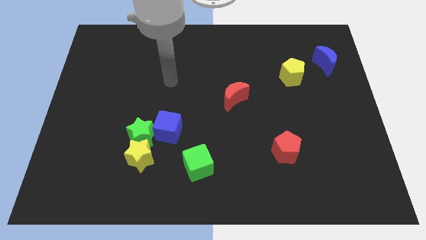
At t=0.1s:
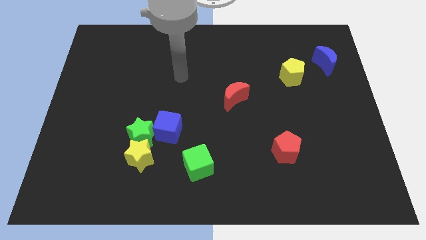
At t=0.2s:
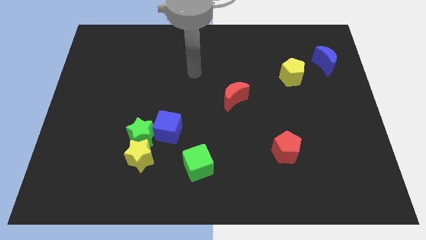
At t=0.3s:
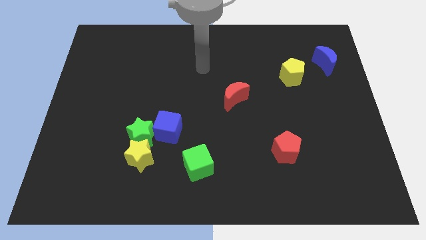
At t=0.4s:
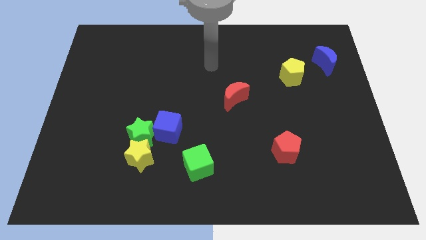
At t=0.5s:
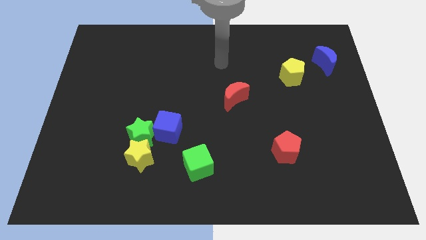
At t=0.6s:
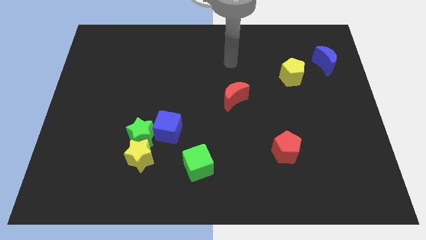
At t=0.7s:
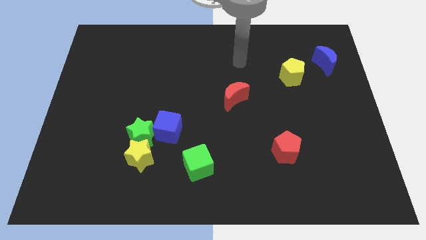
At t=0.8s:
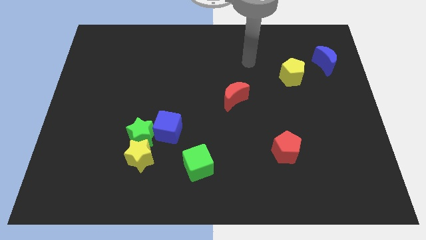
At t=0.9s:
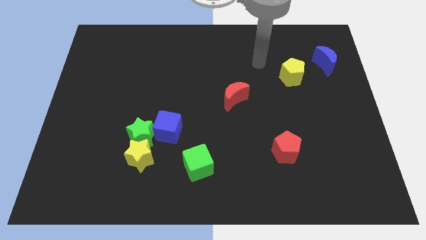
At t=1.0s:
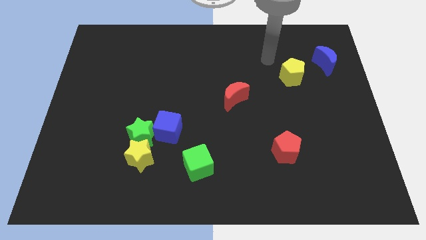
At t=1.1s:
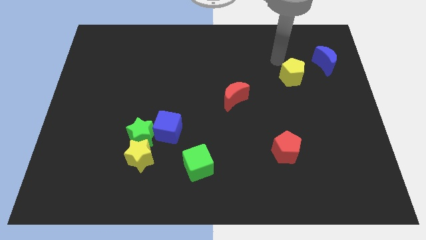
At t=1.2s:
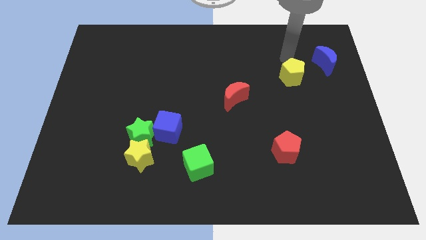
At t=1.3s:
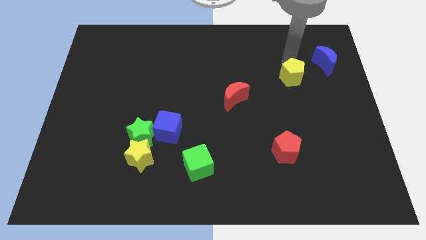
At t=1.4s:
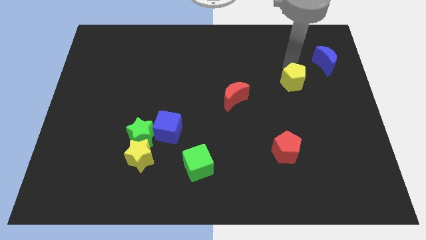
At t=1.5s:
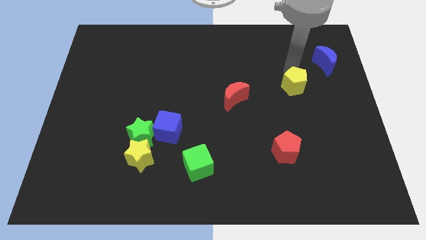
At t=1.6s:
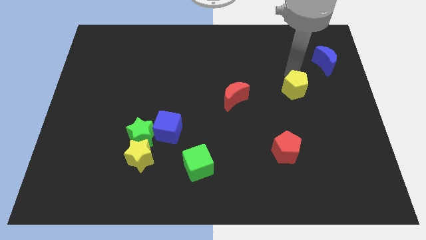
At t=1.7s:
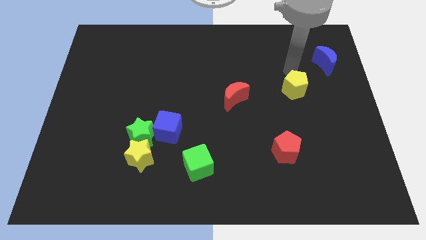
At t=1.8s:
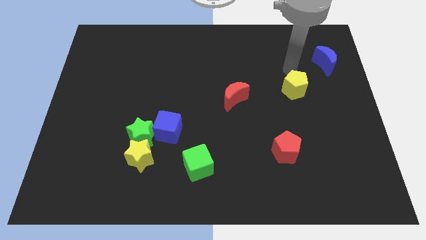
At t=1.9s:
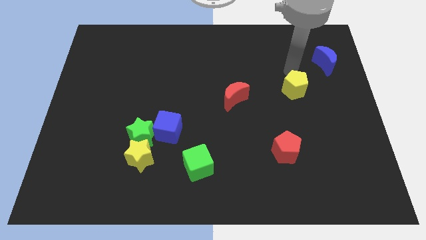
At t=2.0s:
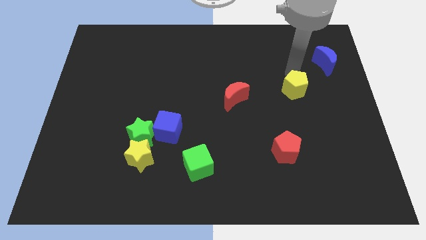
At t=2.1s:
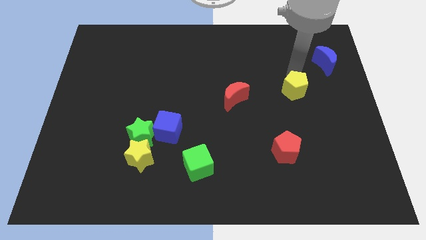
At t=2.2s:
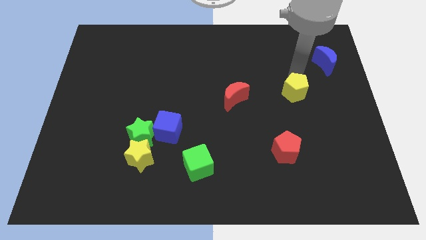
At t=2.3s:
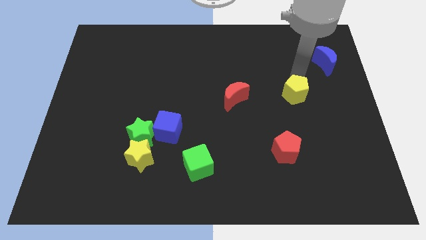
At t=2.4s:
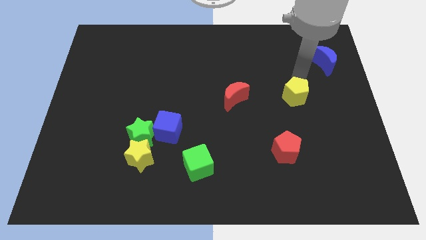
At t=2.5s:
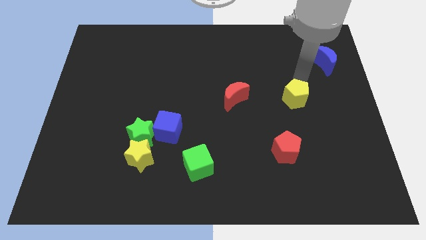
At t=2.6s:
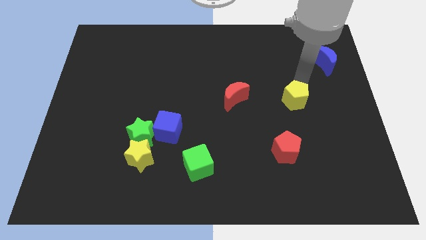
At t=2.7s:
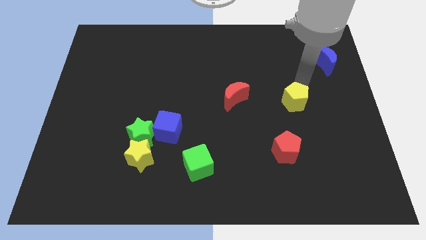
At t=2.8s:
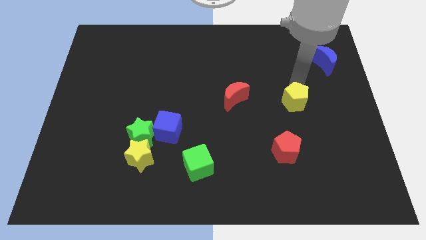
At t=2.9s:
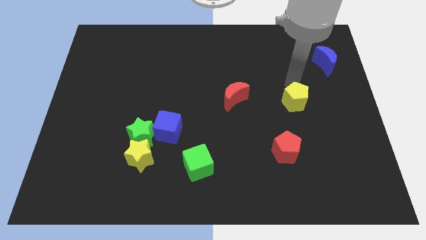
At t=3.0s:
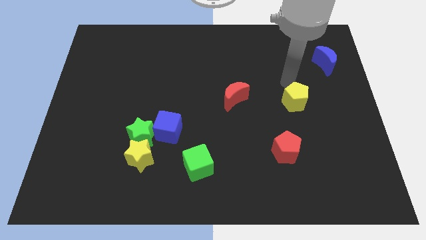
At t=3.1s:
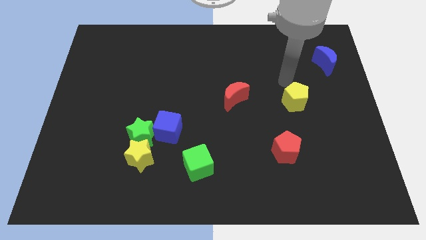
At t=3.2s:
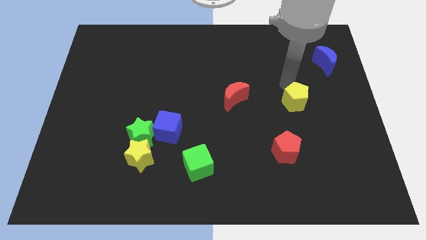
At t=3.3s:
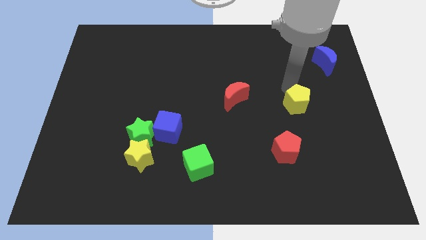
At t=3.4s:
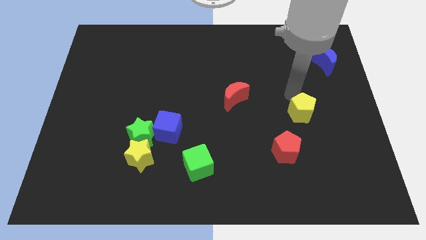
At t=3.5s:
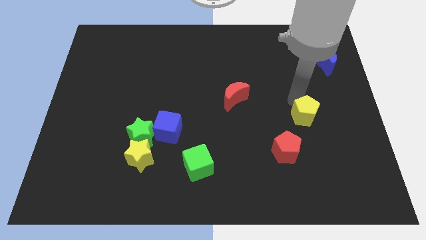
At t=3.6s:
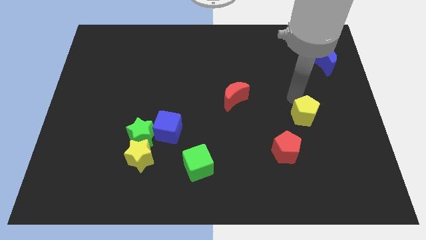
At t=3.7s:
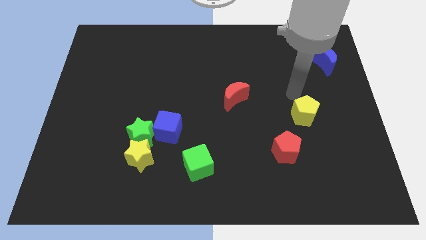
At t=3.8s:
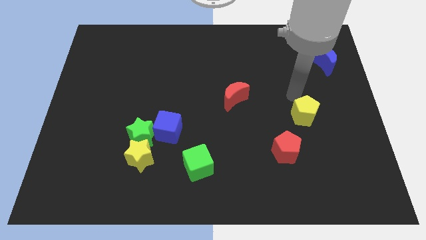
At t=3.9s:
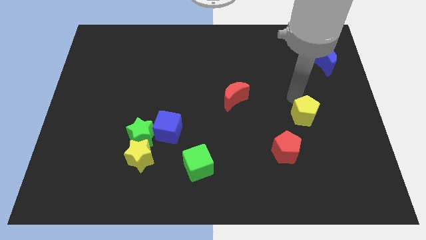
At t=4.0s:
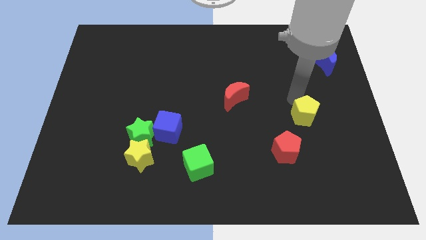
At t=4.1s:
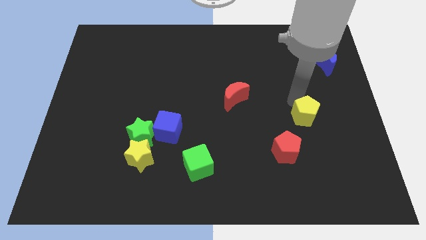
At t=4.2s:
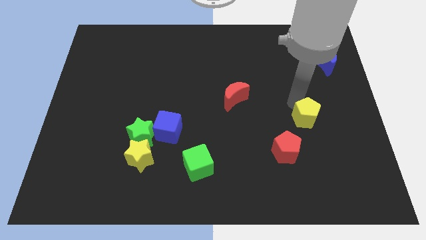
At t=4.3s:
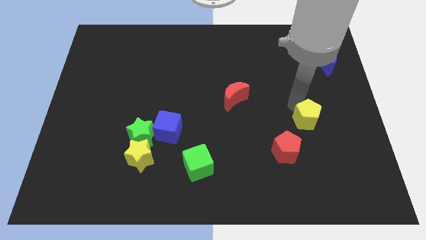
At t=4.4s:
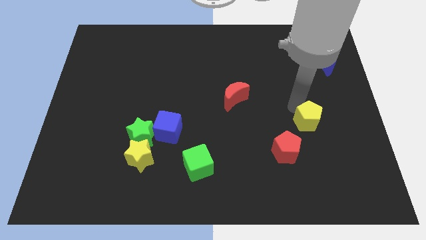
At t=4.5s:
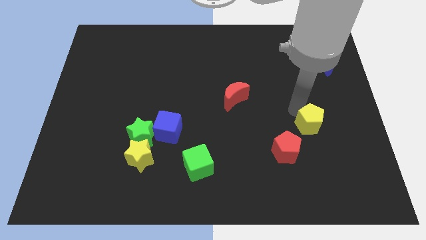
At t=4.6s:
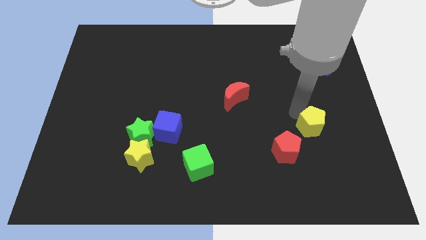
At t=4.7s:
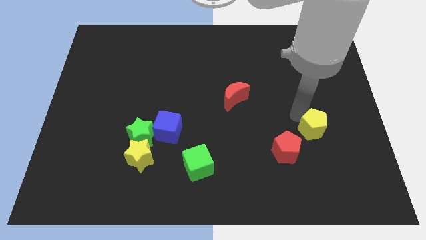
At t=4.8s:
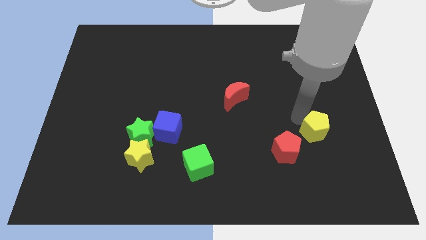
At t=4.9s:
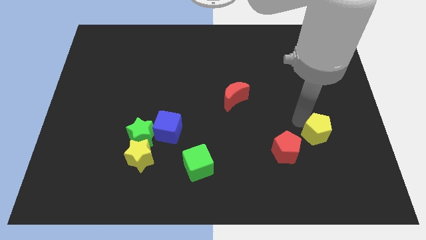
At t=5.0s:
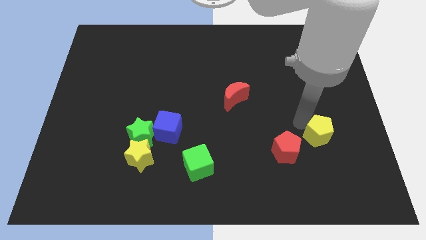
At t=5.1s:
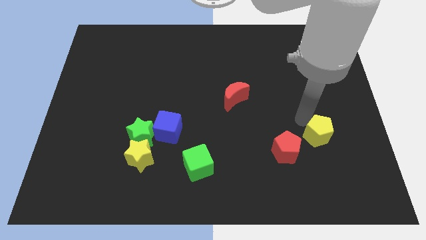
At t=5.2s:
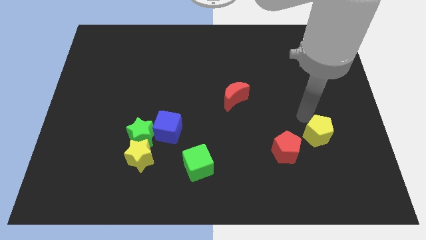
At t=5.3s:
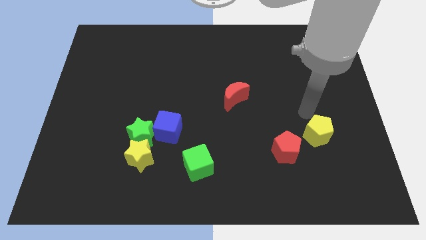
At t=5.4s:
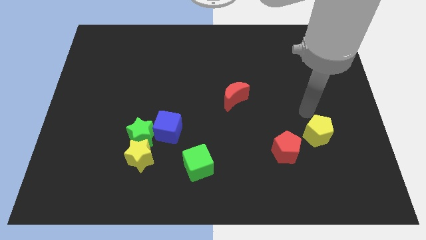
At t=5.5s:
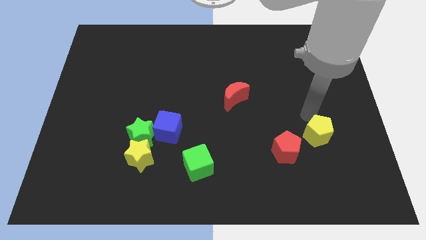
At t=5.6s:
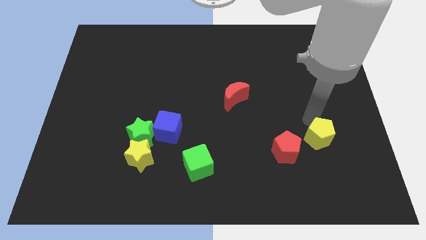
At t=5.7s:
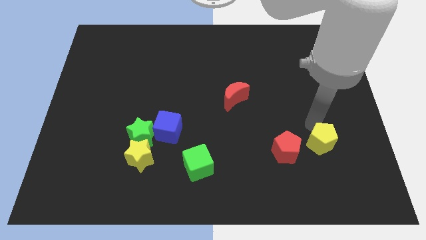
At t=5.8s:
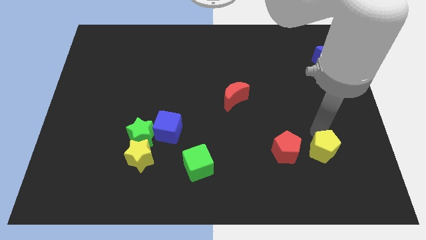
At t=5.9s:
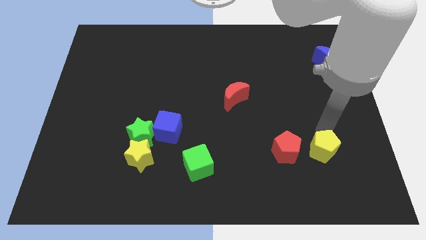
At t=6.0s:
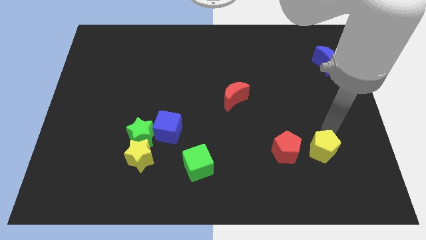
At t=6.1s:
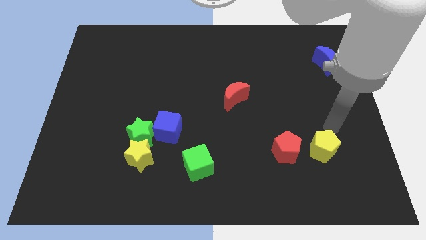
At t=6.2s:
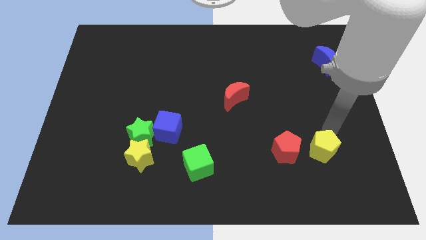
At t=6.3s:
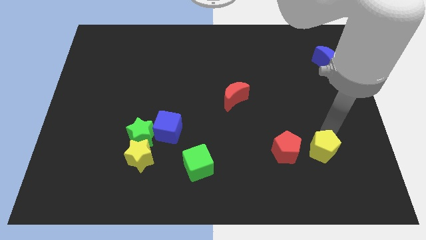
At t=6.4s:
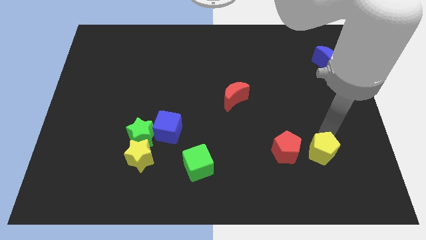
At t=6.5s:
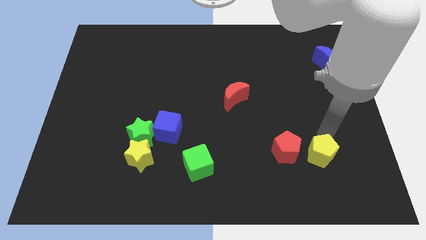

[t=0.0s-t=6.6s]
push the yellow pentagon diagonally down and to the right of the red pentagon
